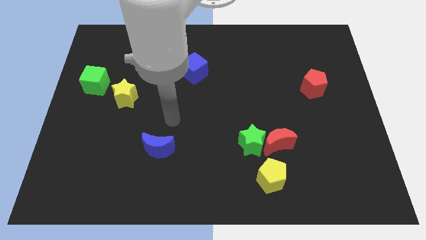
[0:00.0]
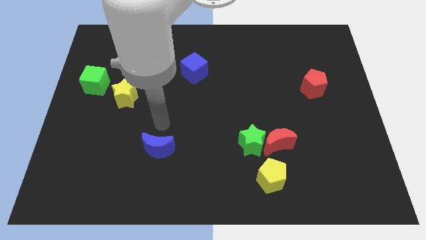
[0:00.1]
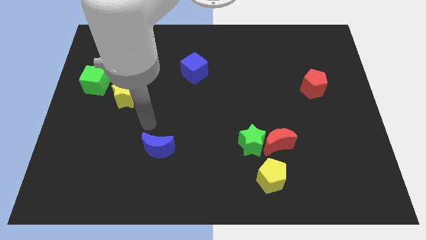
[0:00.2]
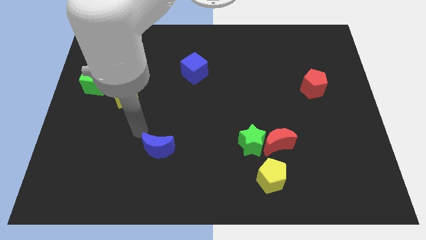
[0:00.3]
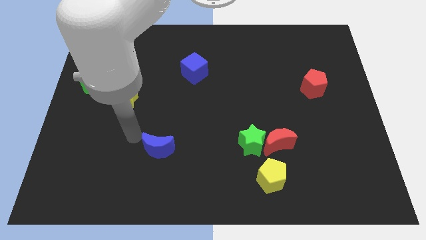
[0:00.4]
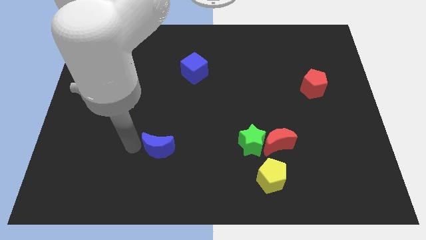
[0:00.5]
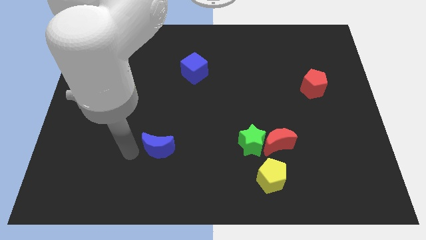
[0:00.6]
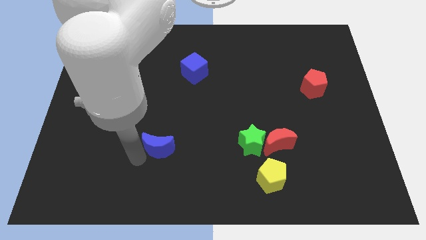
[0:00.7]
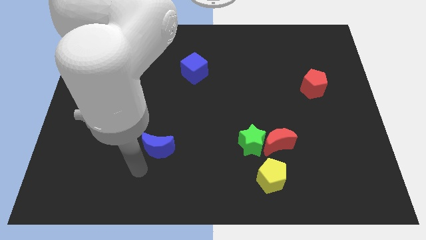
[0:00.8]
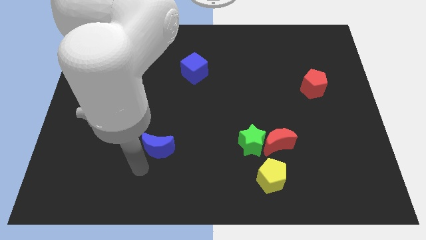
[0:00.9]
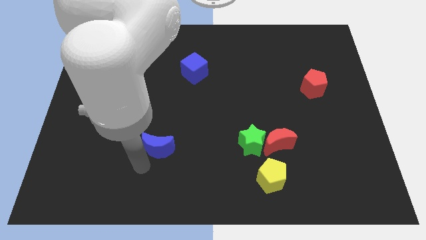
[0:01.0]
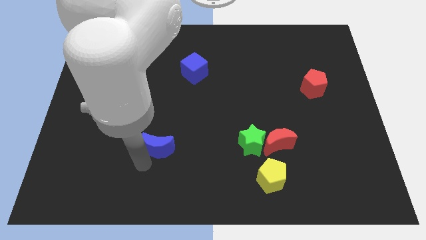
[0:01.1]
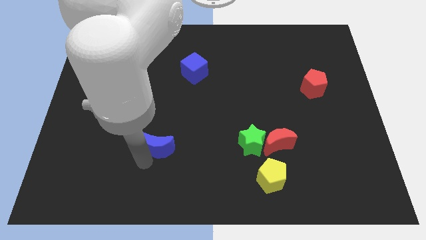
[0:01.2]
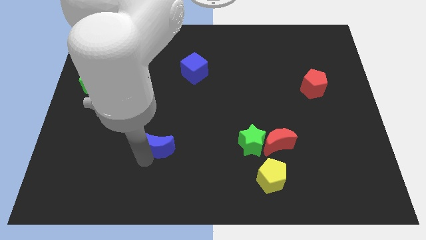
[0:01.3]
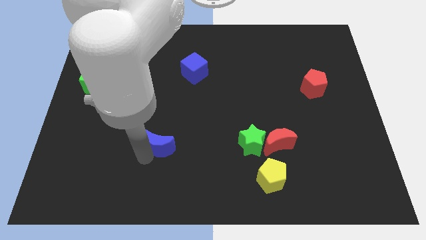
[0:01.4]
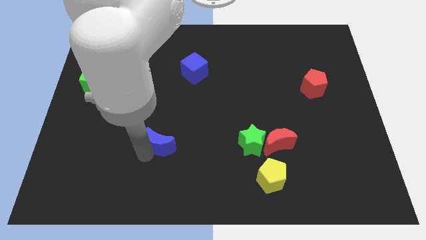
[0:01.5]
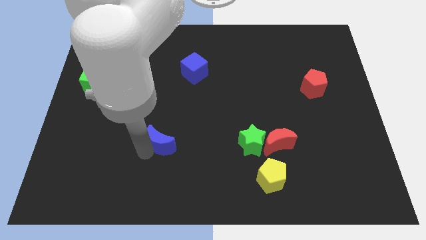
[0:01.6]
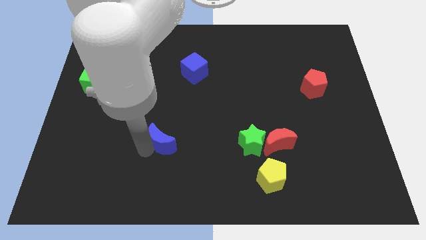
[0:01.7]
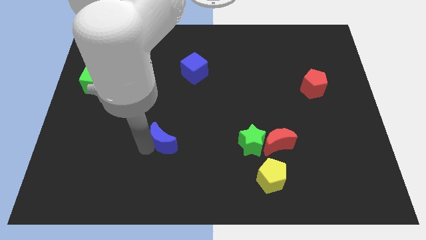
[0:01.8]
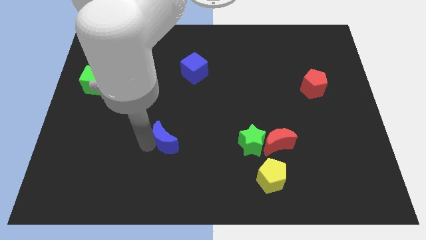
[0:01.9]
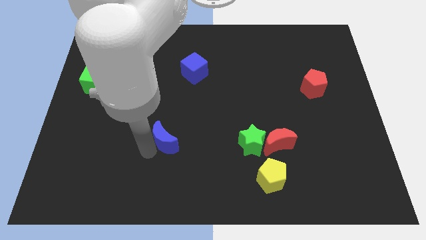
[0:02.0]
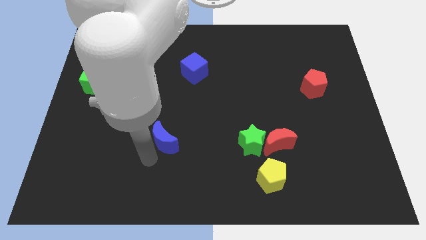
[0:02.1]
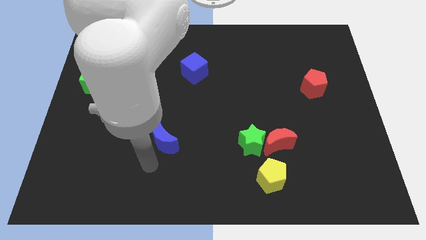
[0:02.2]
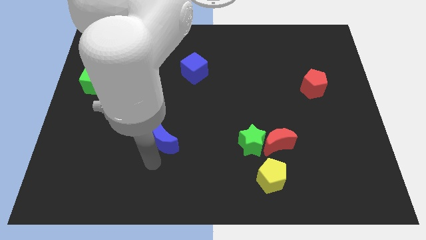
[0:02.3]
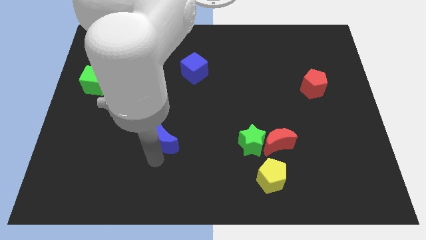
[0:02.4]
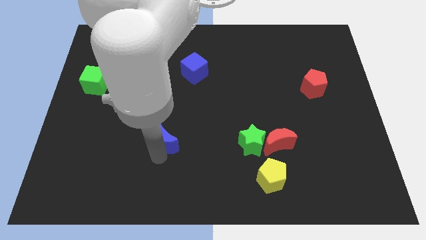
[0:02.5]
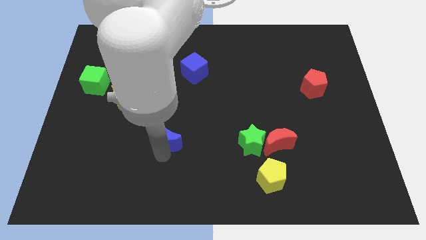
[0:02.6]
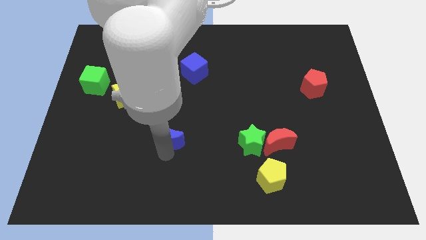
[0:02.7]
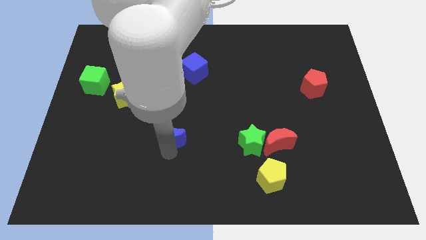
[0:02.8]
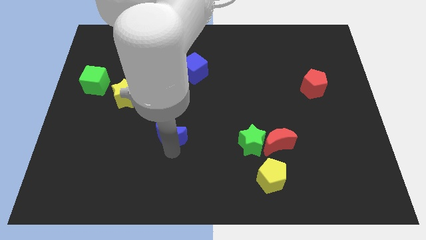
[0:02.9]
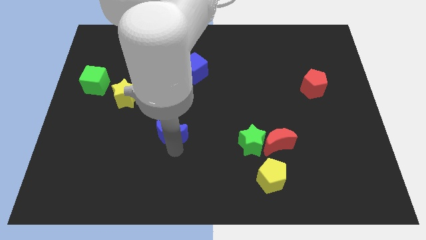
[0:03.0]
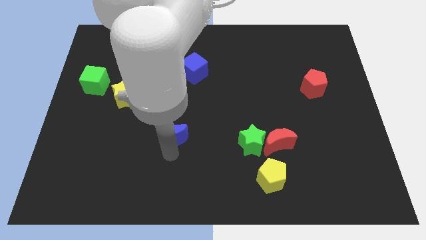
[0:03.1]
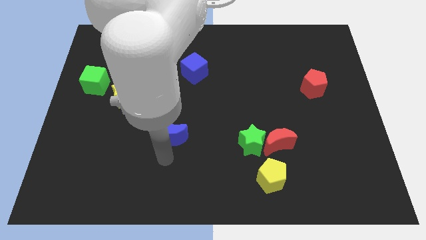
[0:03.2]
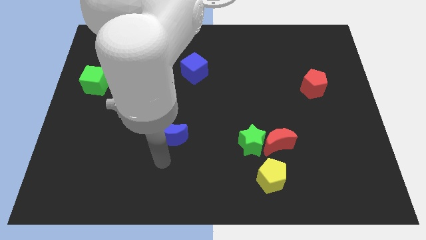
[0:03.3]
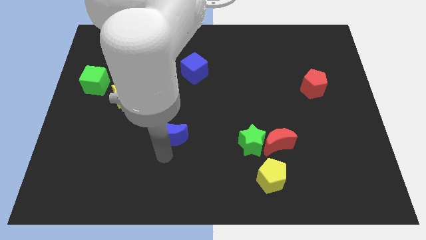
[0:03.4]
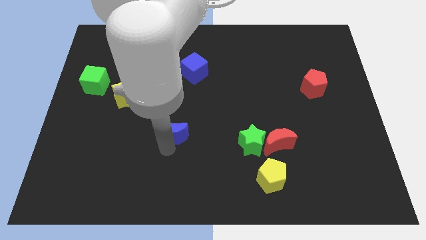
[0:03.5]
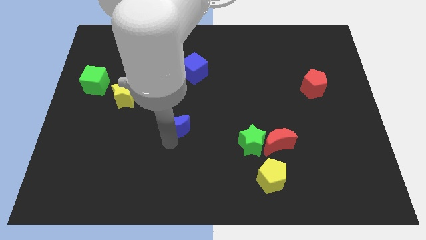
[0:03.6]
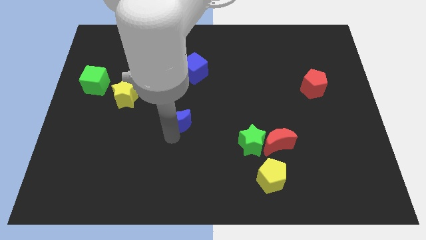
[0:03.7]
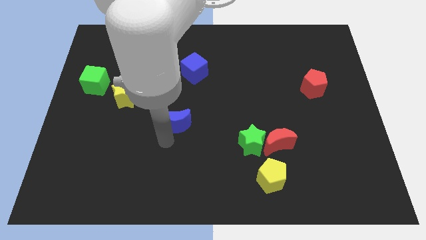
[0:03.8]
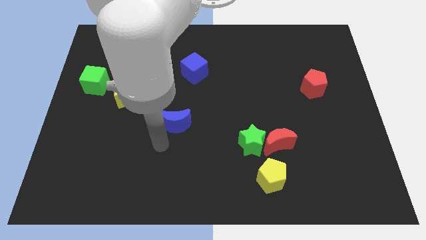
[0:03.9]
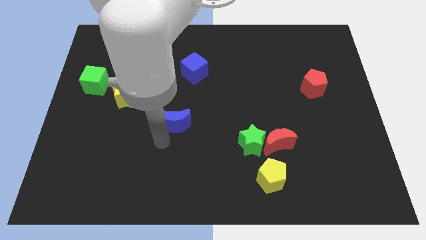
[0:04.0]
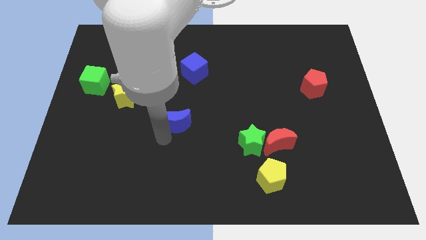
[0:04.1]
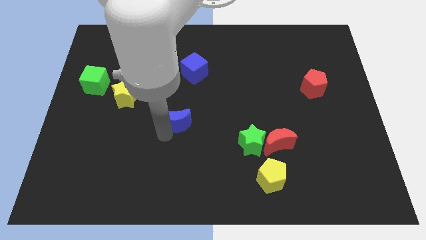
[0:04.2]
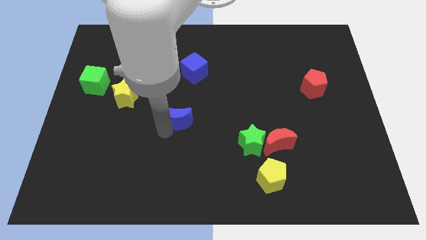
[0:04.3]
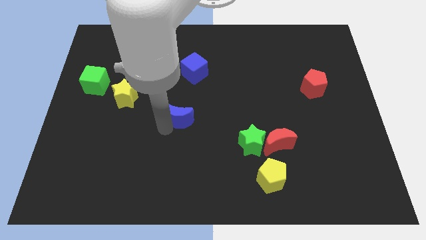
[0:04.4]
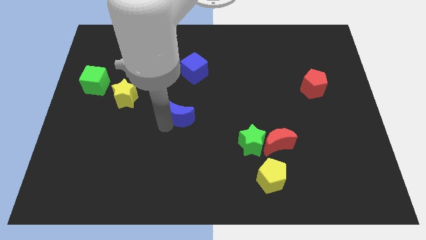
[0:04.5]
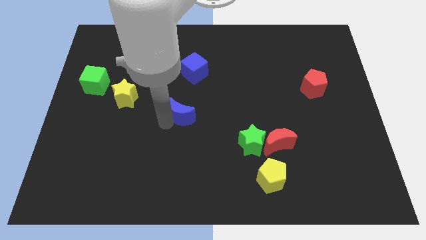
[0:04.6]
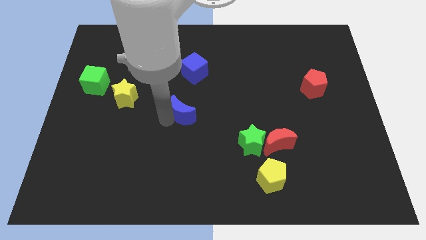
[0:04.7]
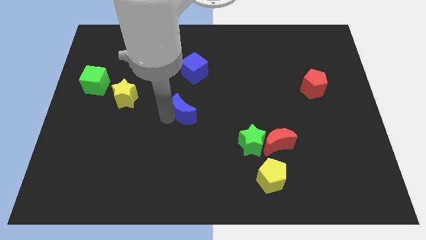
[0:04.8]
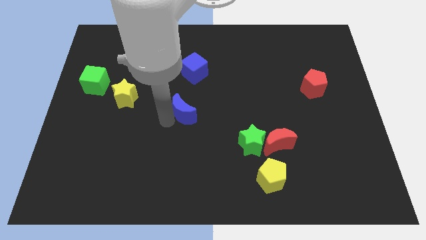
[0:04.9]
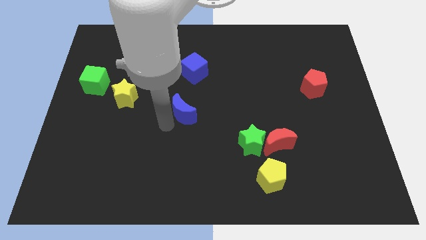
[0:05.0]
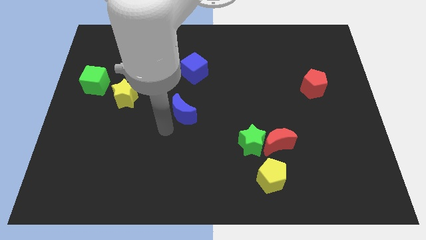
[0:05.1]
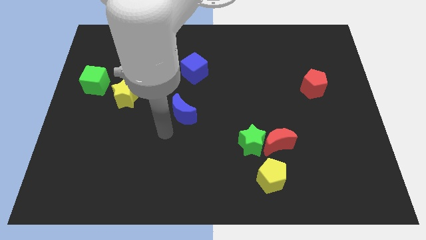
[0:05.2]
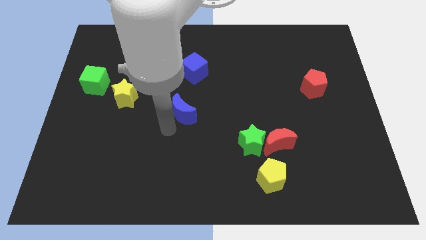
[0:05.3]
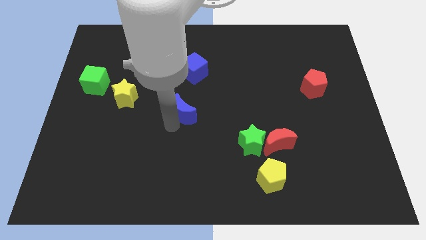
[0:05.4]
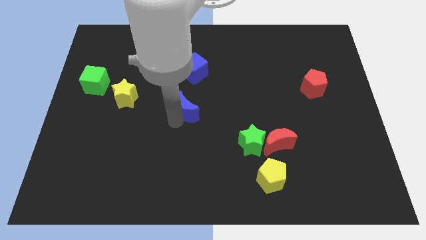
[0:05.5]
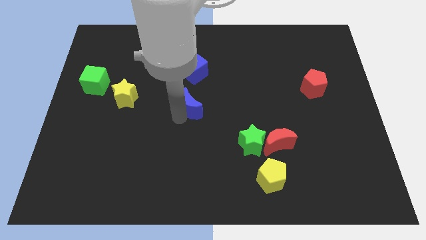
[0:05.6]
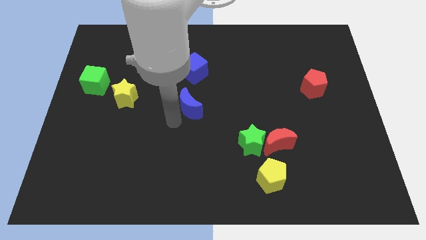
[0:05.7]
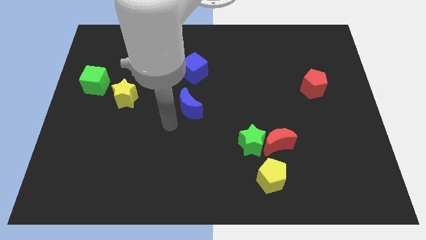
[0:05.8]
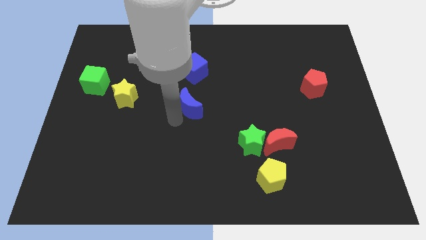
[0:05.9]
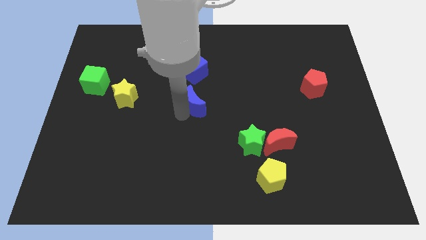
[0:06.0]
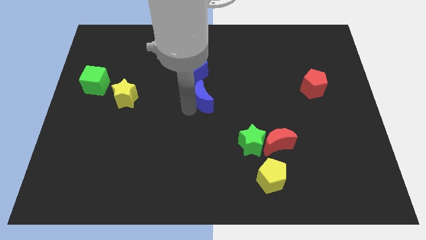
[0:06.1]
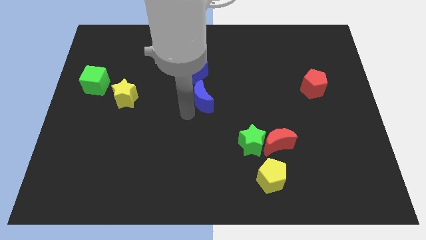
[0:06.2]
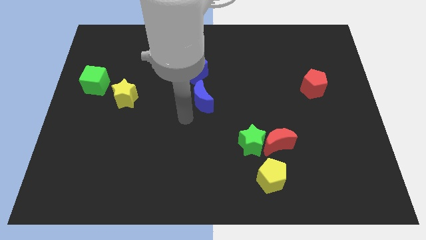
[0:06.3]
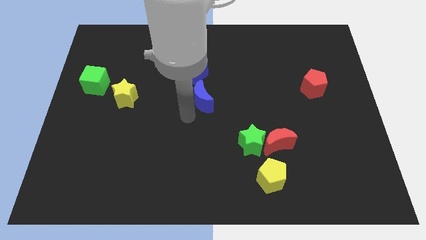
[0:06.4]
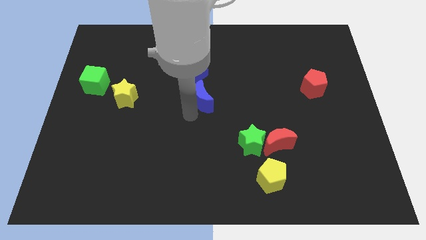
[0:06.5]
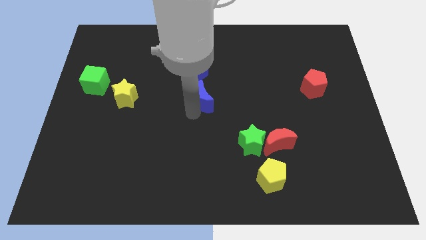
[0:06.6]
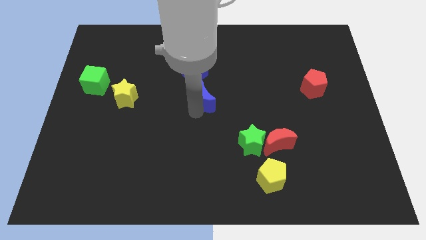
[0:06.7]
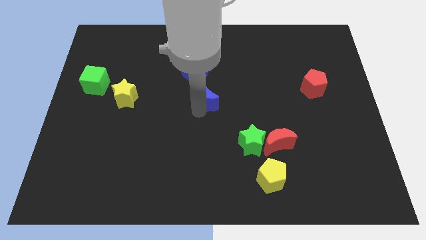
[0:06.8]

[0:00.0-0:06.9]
push the blue moon to the bottom right side of the blue cube

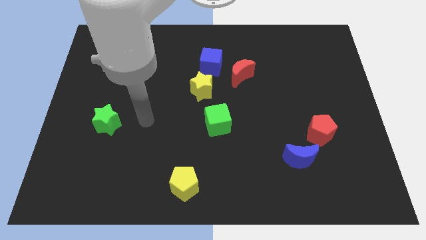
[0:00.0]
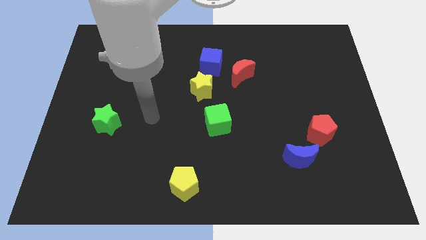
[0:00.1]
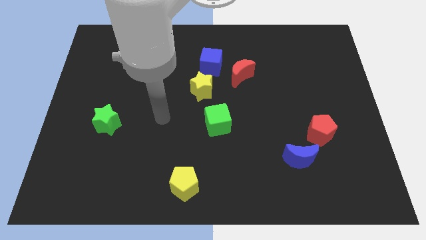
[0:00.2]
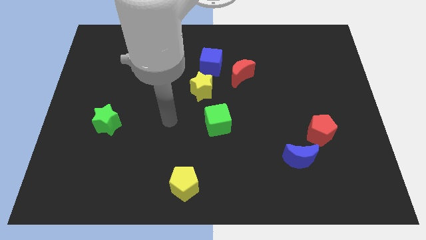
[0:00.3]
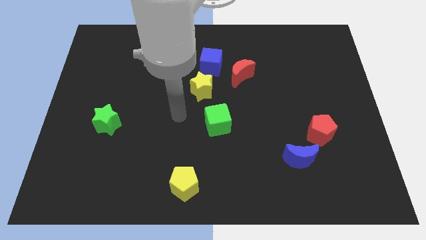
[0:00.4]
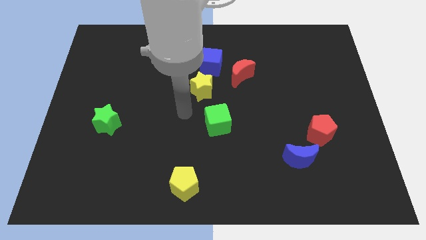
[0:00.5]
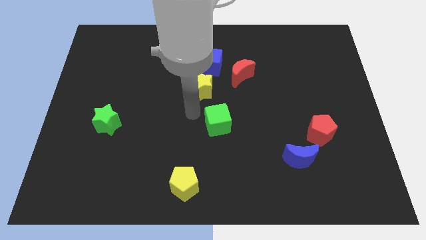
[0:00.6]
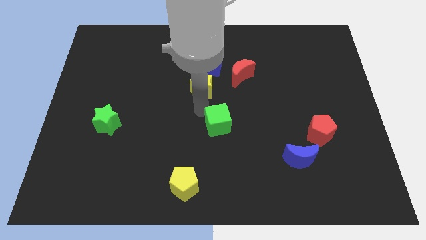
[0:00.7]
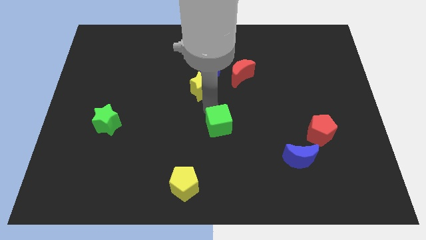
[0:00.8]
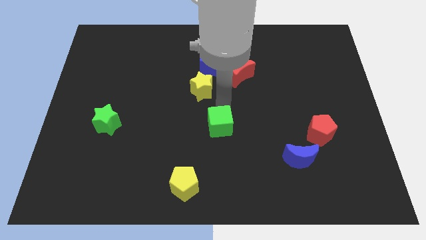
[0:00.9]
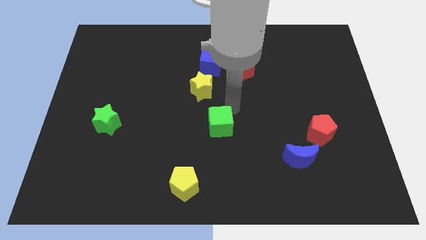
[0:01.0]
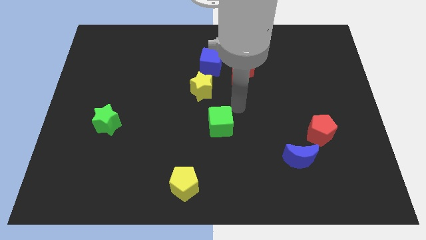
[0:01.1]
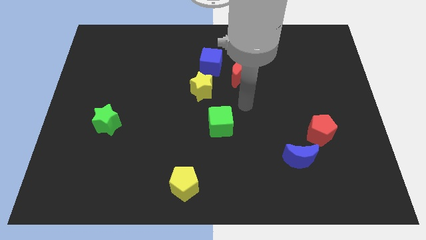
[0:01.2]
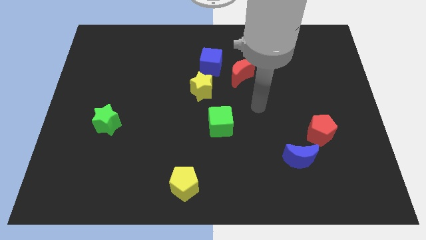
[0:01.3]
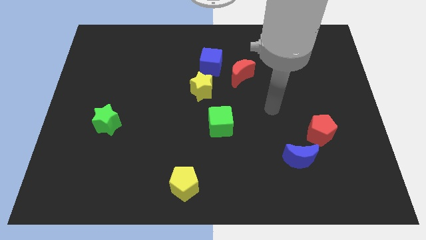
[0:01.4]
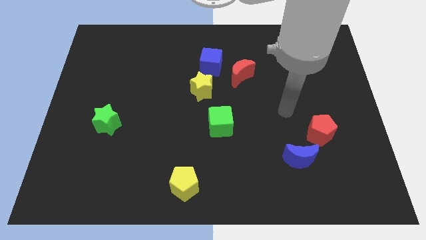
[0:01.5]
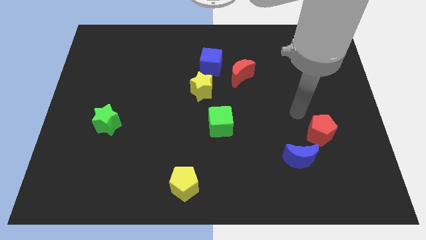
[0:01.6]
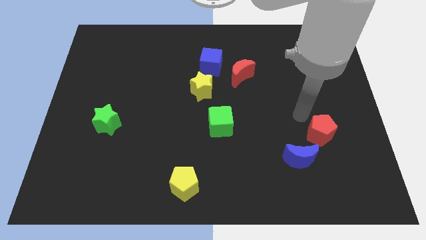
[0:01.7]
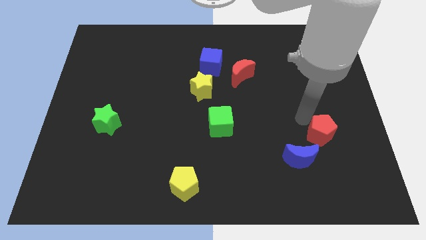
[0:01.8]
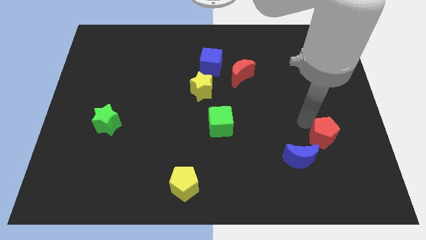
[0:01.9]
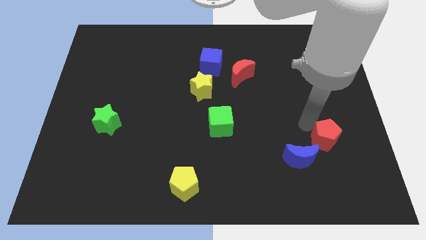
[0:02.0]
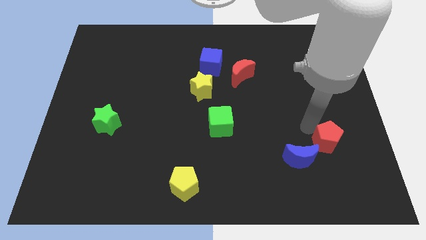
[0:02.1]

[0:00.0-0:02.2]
push the red pentagon just right of the blue moon
